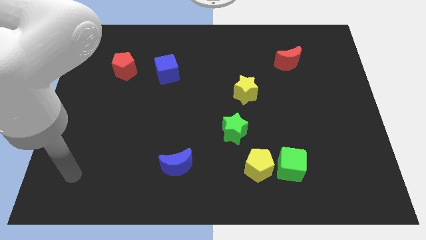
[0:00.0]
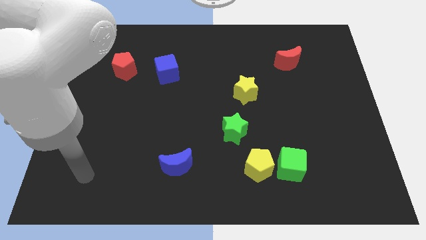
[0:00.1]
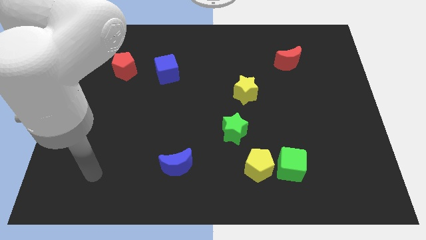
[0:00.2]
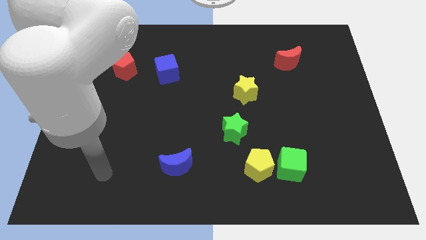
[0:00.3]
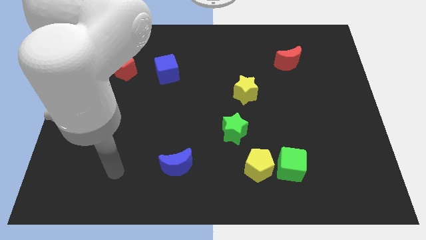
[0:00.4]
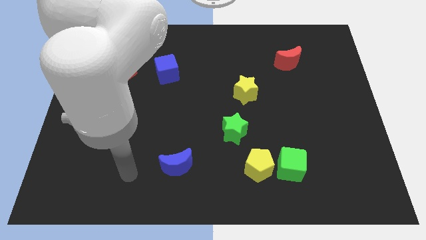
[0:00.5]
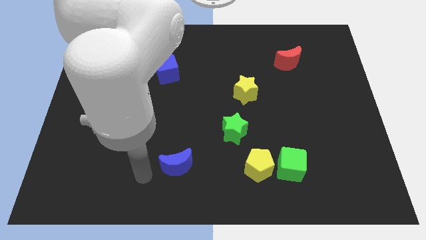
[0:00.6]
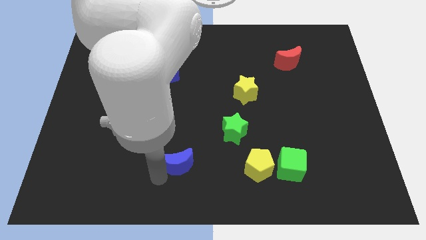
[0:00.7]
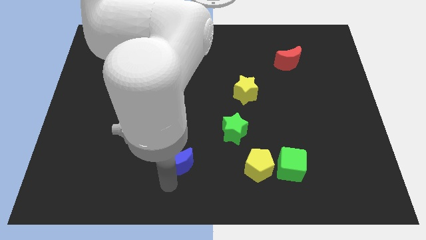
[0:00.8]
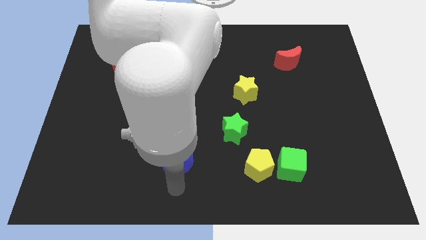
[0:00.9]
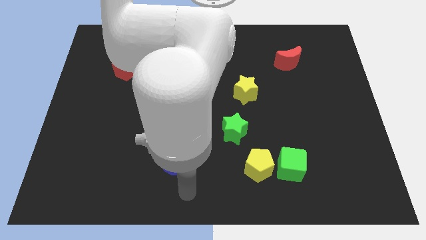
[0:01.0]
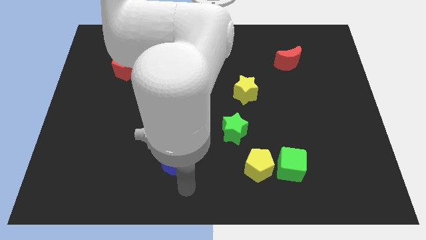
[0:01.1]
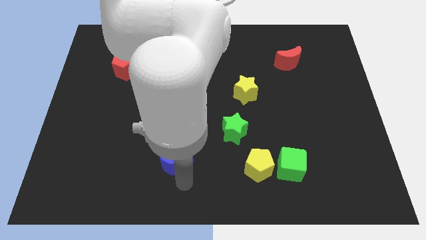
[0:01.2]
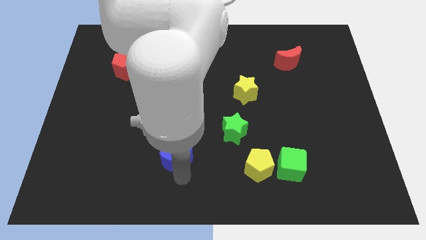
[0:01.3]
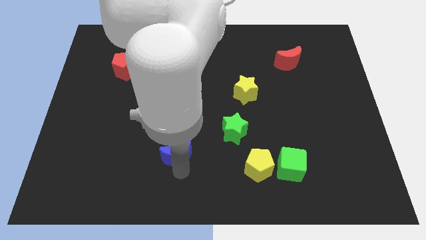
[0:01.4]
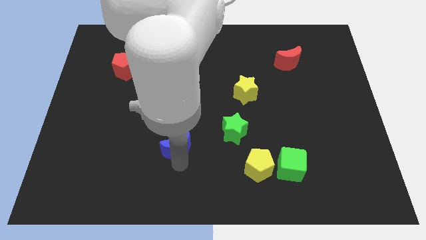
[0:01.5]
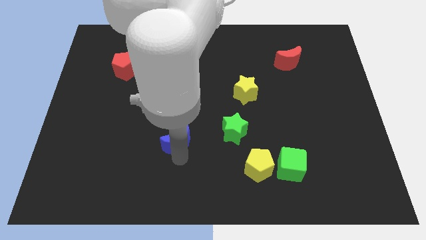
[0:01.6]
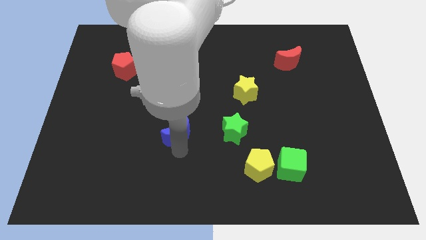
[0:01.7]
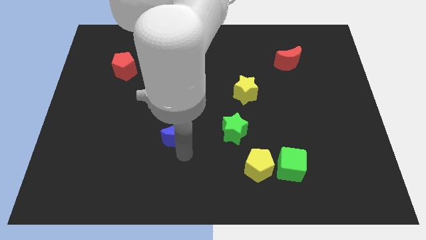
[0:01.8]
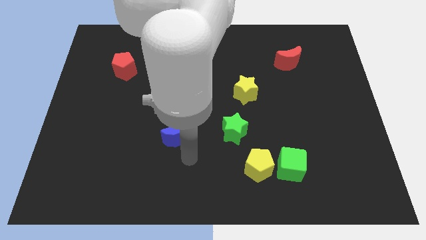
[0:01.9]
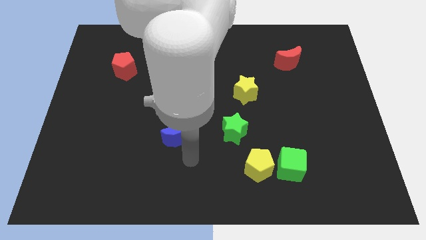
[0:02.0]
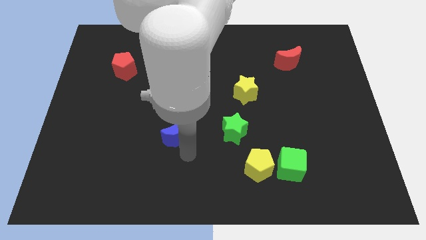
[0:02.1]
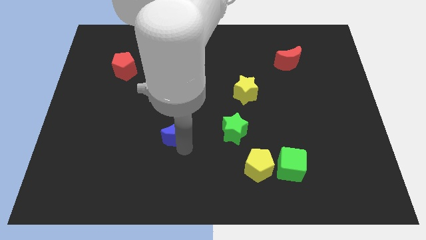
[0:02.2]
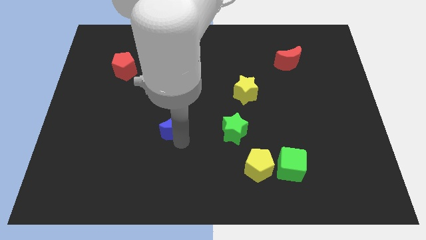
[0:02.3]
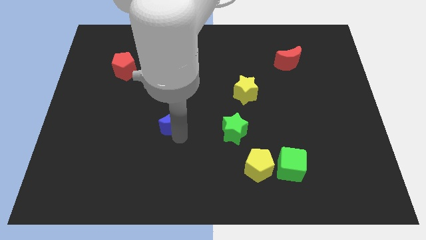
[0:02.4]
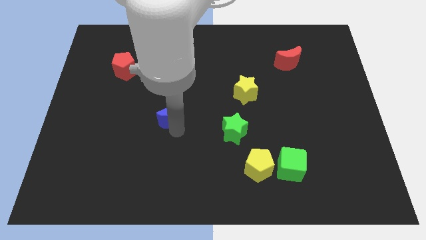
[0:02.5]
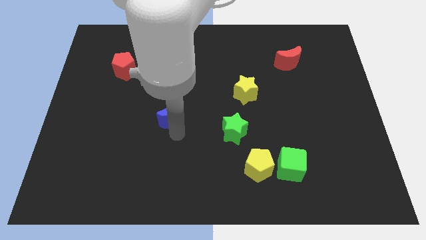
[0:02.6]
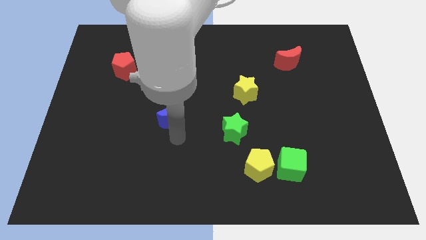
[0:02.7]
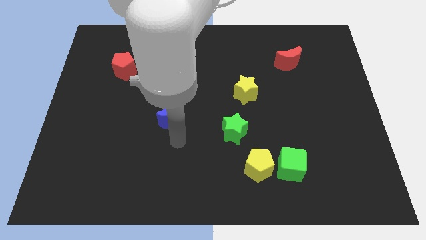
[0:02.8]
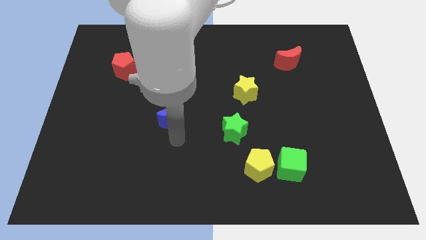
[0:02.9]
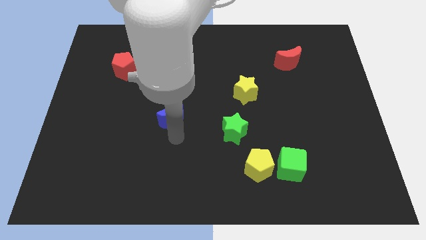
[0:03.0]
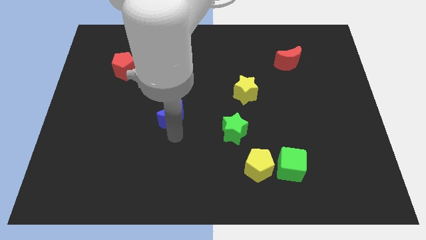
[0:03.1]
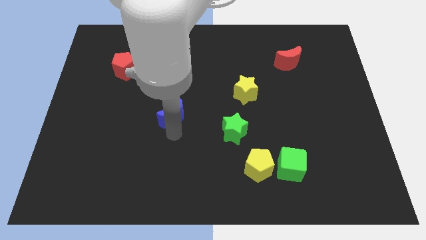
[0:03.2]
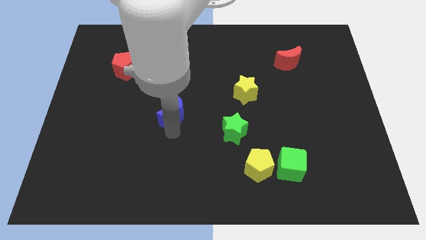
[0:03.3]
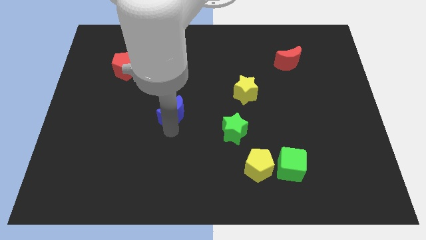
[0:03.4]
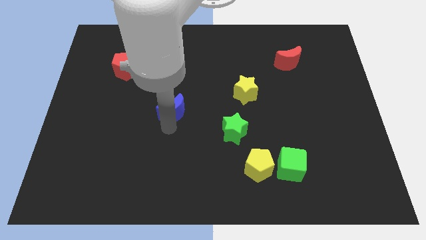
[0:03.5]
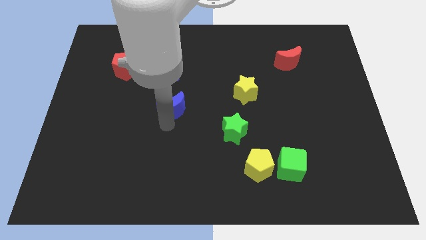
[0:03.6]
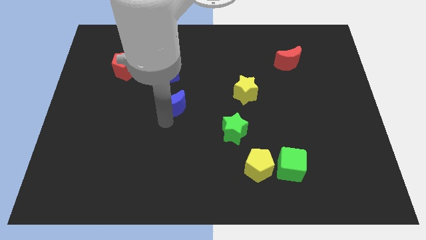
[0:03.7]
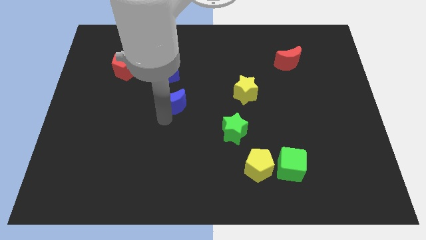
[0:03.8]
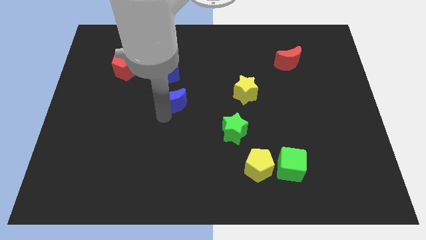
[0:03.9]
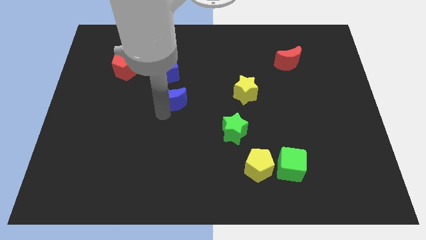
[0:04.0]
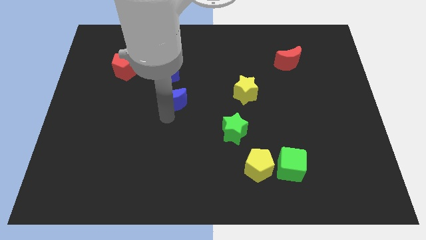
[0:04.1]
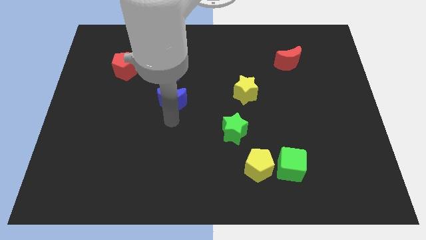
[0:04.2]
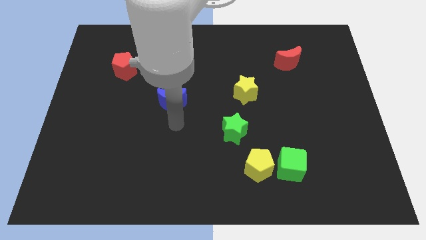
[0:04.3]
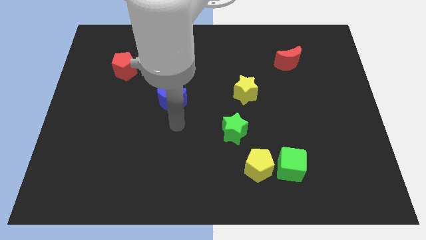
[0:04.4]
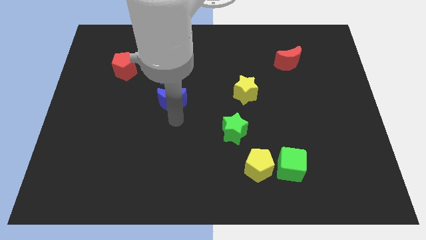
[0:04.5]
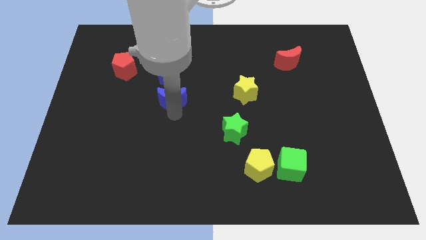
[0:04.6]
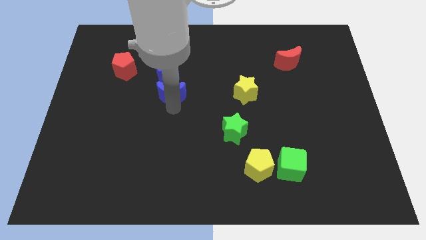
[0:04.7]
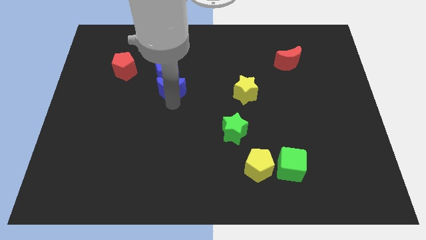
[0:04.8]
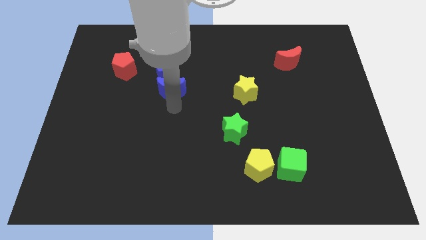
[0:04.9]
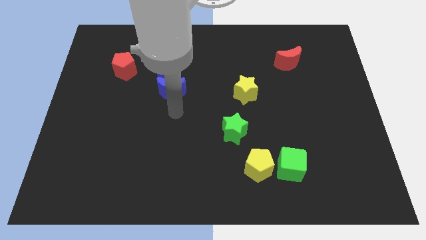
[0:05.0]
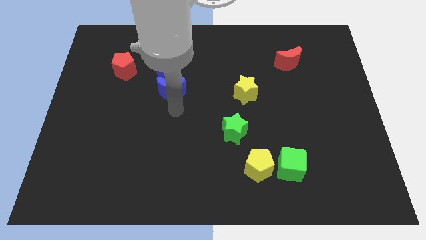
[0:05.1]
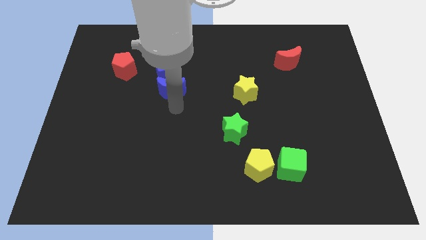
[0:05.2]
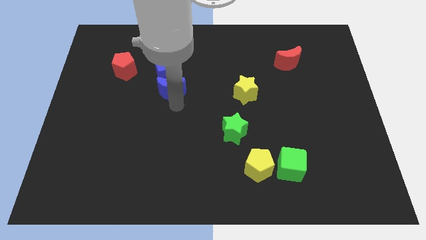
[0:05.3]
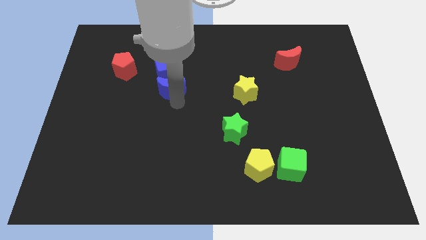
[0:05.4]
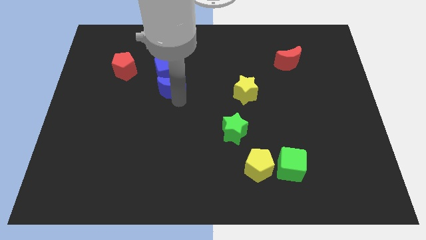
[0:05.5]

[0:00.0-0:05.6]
push the blue moon close to the blue cube

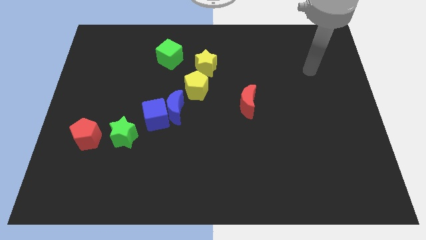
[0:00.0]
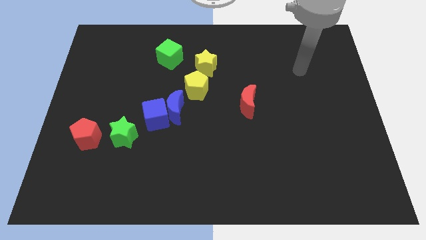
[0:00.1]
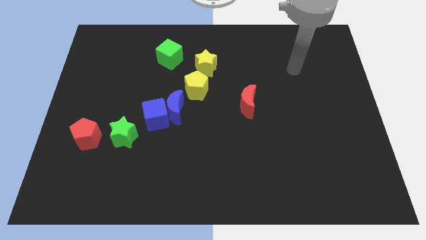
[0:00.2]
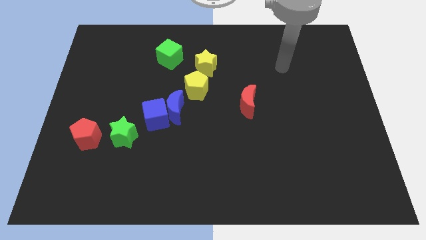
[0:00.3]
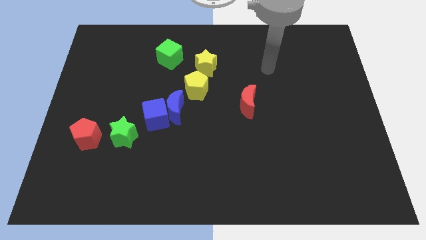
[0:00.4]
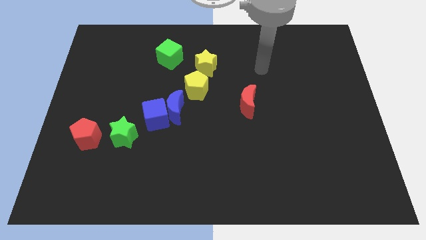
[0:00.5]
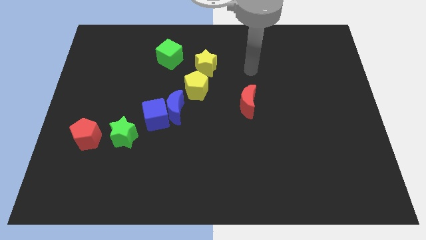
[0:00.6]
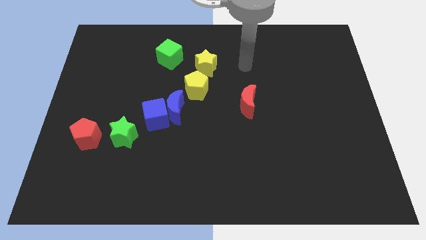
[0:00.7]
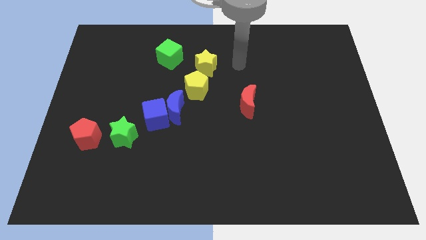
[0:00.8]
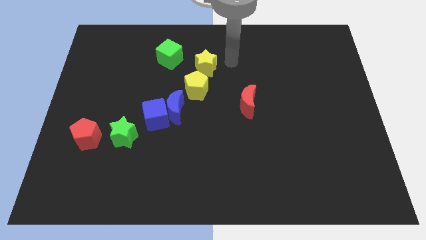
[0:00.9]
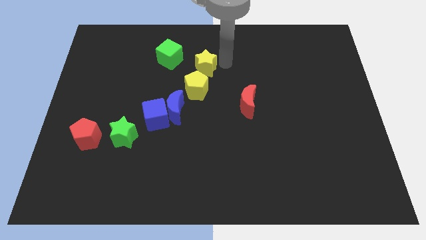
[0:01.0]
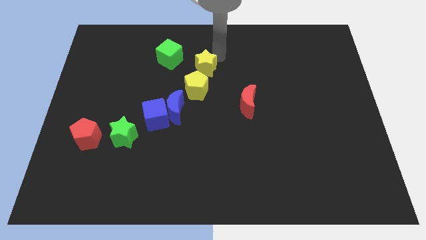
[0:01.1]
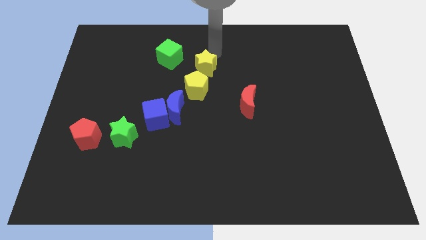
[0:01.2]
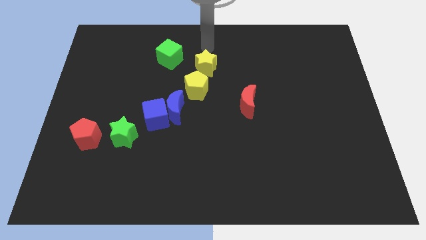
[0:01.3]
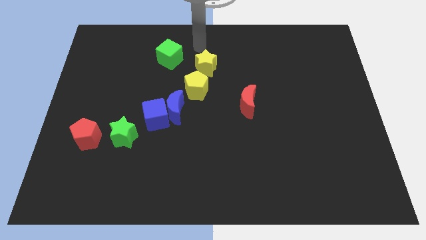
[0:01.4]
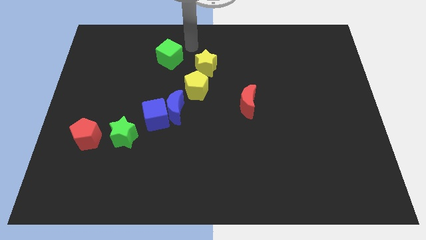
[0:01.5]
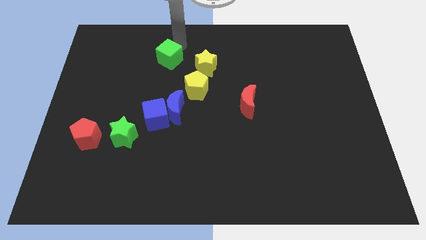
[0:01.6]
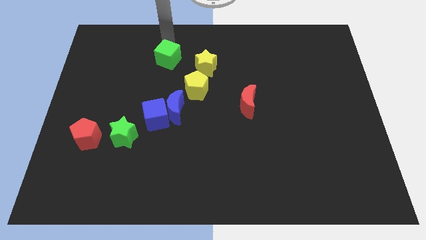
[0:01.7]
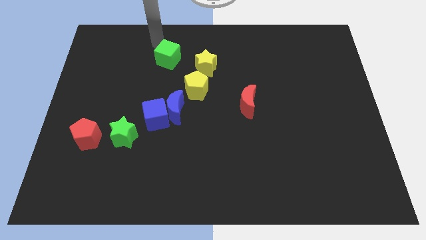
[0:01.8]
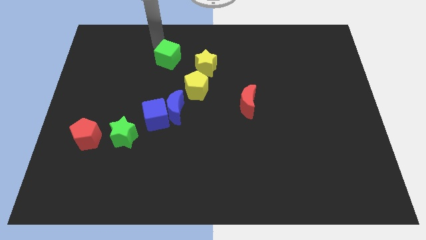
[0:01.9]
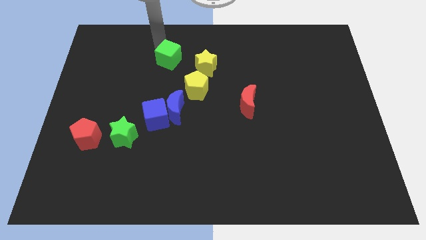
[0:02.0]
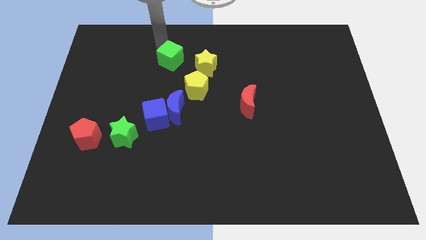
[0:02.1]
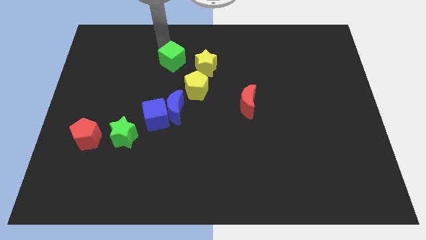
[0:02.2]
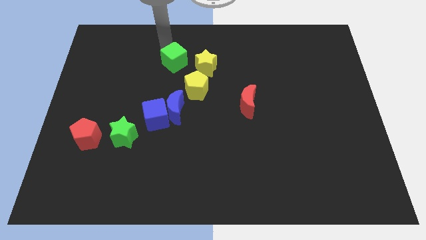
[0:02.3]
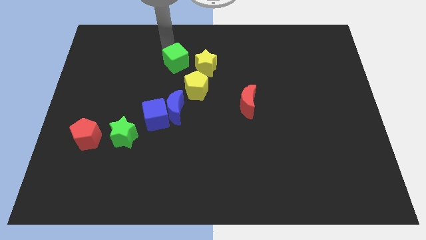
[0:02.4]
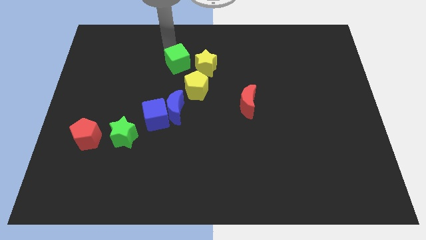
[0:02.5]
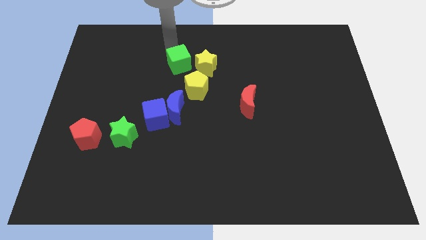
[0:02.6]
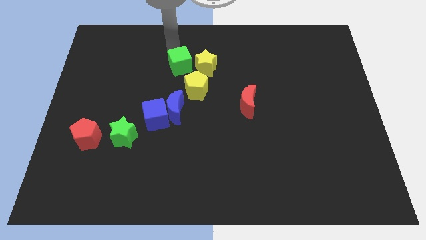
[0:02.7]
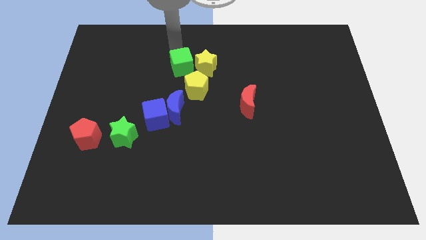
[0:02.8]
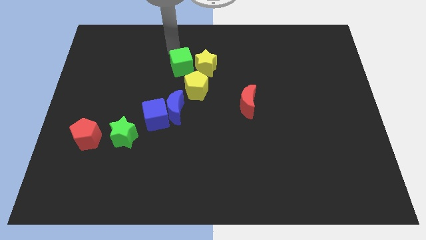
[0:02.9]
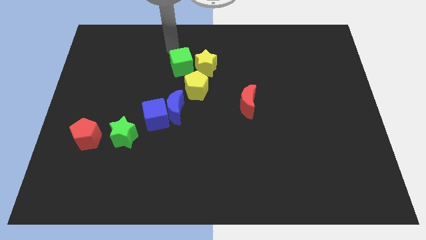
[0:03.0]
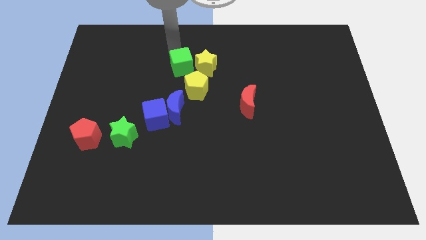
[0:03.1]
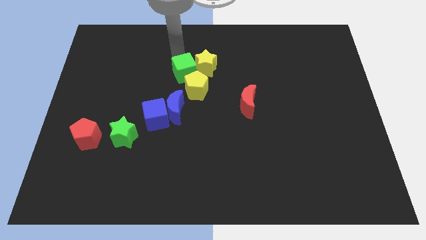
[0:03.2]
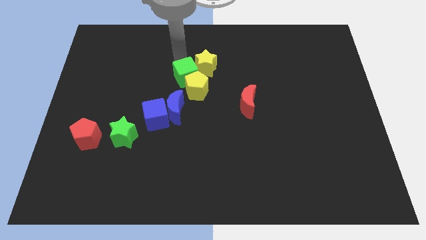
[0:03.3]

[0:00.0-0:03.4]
push the green cube close to the yellow pentagon
